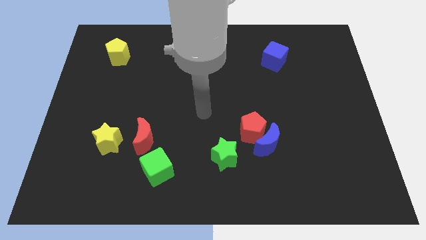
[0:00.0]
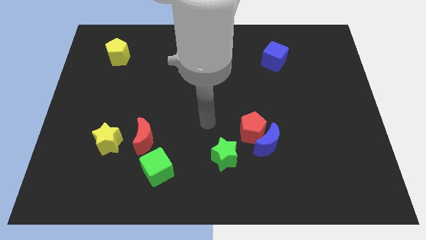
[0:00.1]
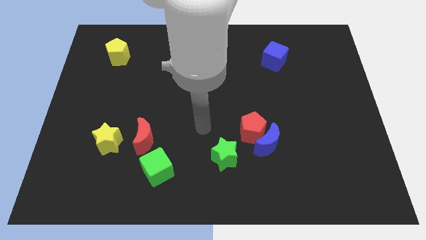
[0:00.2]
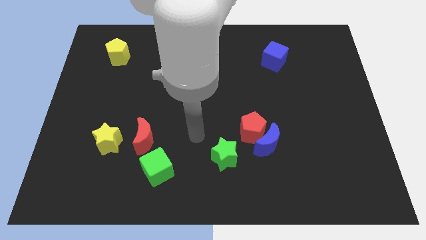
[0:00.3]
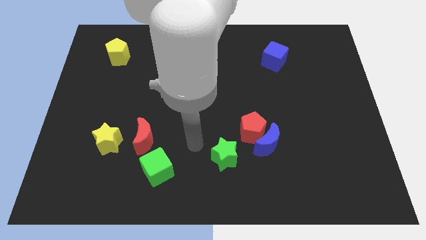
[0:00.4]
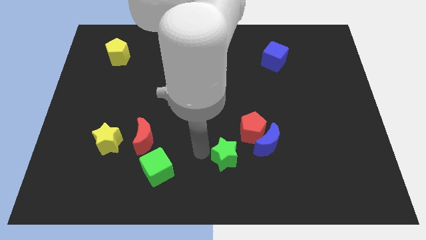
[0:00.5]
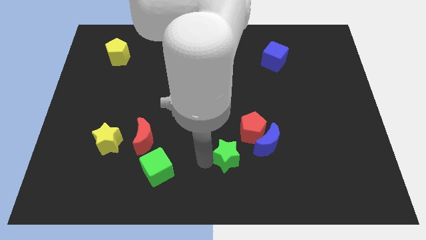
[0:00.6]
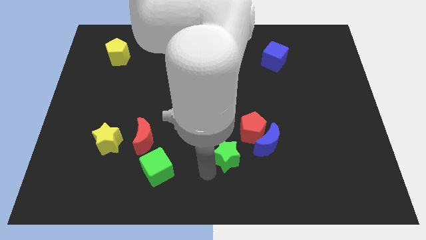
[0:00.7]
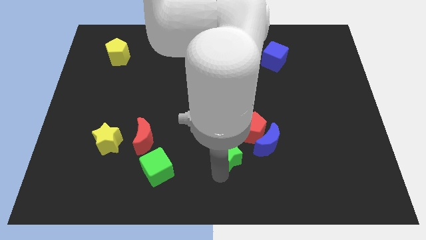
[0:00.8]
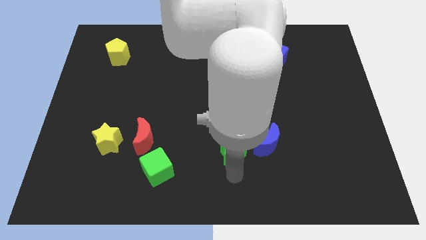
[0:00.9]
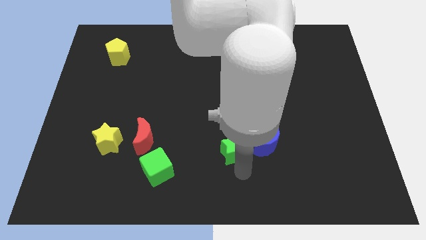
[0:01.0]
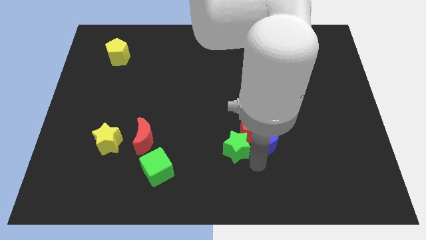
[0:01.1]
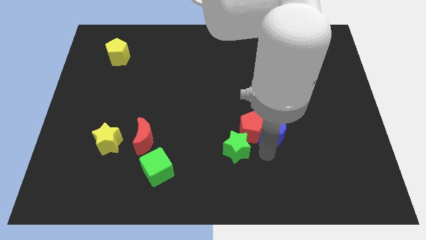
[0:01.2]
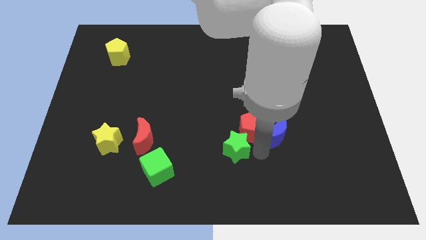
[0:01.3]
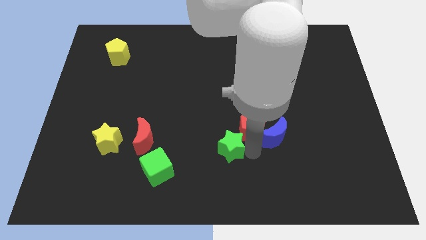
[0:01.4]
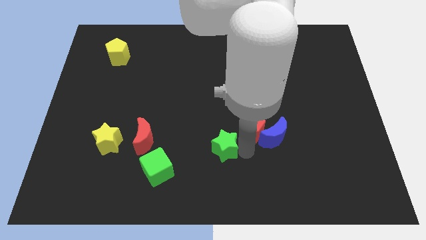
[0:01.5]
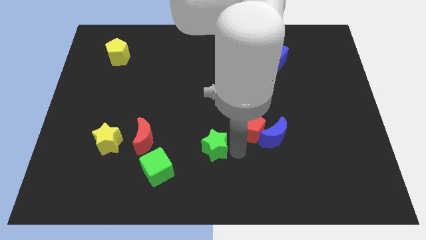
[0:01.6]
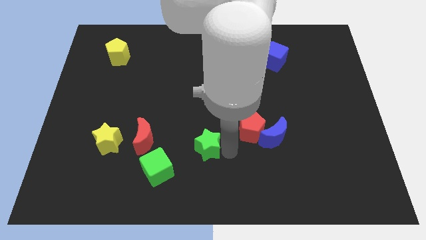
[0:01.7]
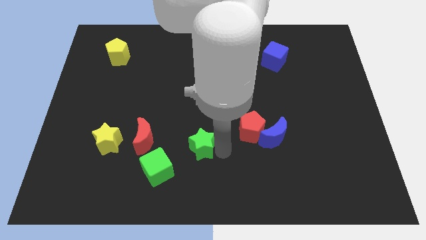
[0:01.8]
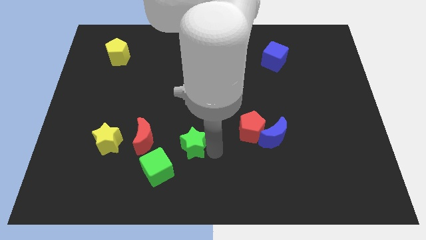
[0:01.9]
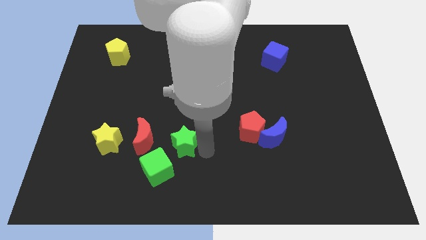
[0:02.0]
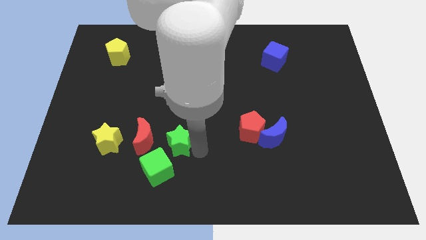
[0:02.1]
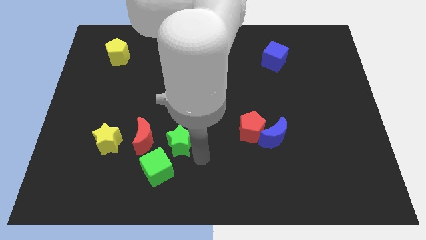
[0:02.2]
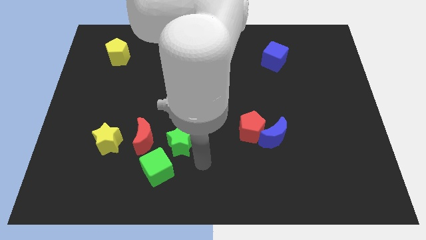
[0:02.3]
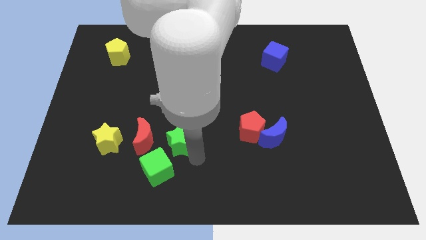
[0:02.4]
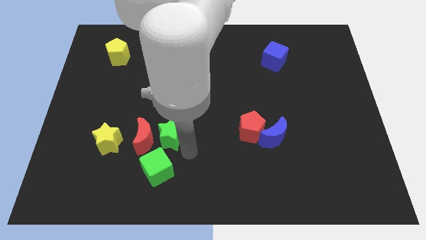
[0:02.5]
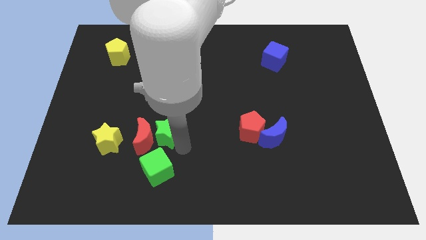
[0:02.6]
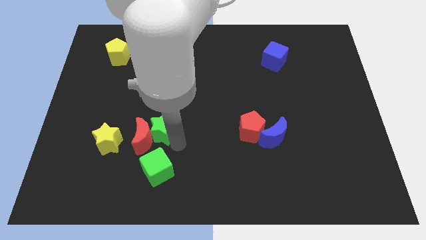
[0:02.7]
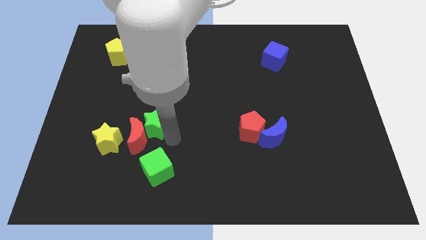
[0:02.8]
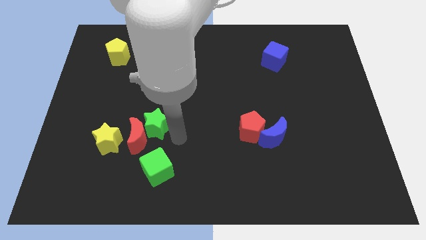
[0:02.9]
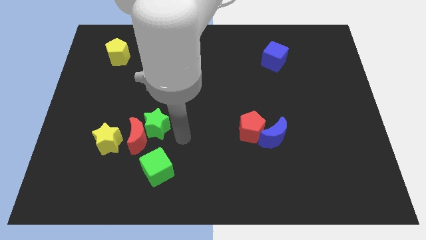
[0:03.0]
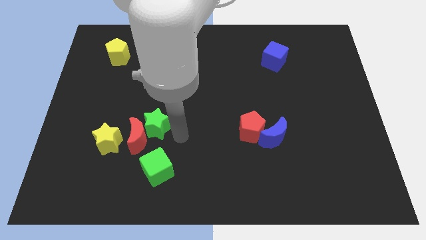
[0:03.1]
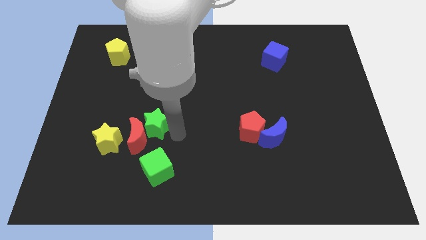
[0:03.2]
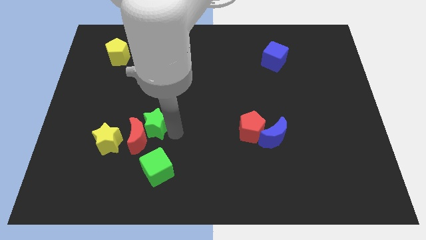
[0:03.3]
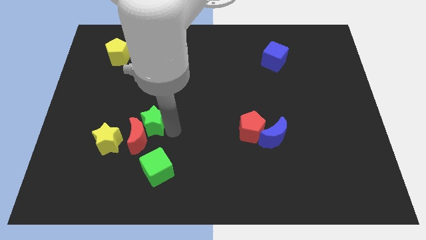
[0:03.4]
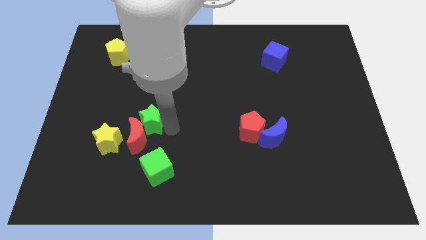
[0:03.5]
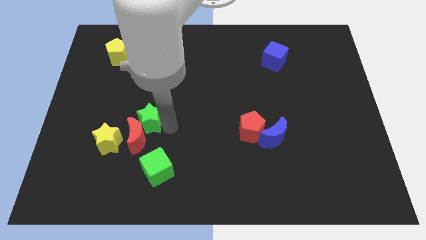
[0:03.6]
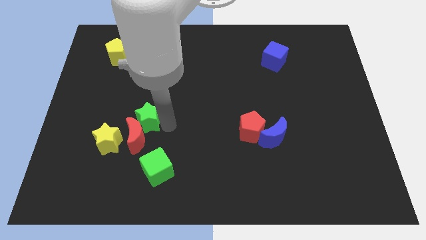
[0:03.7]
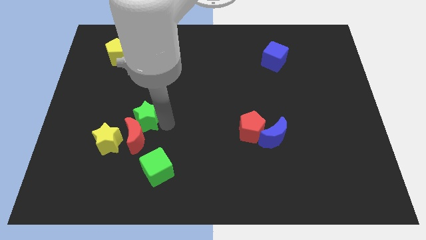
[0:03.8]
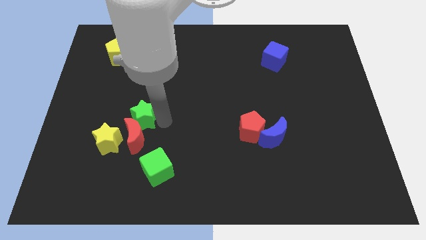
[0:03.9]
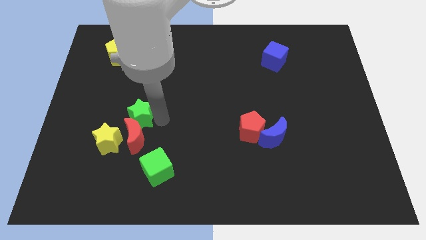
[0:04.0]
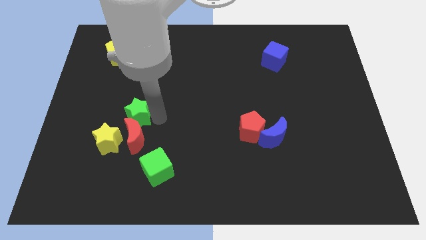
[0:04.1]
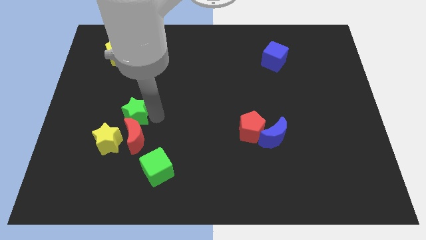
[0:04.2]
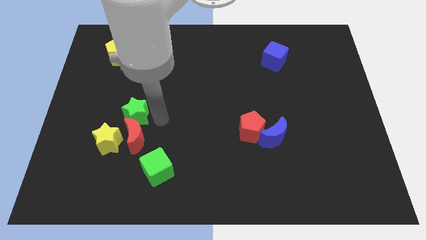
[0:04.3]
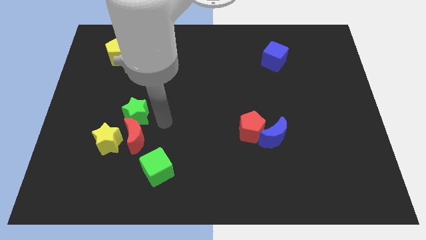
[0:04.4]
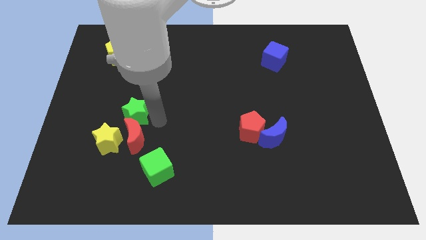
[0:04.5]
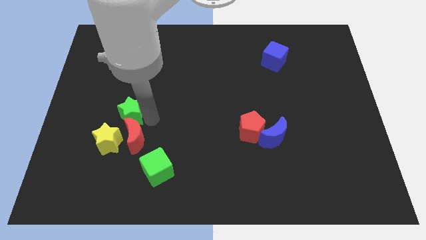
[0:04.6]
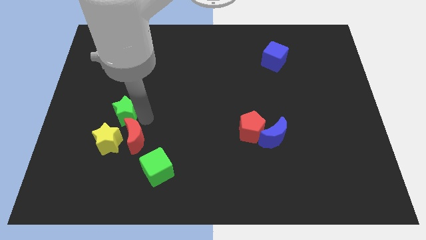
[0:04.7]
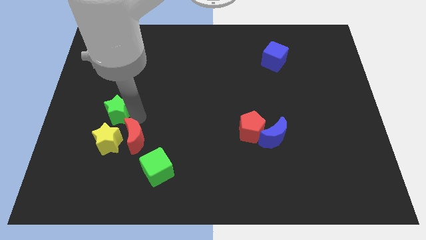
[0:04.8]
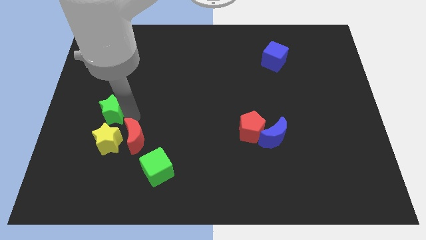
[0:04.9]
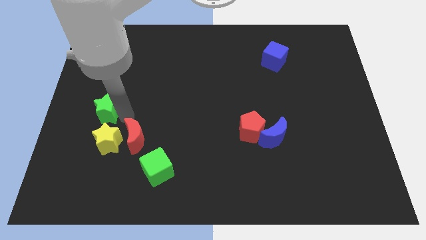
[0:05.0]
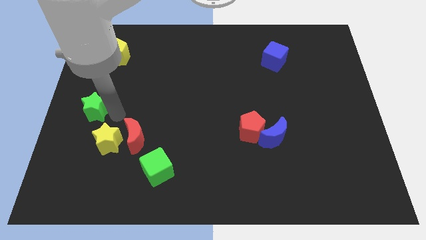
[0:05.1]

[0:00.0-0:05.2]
put the green star to the left side

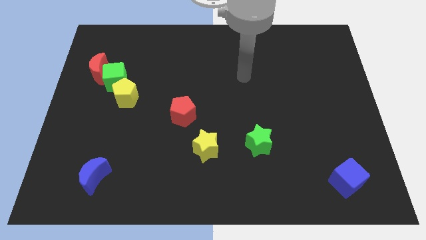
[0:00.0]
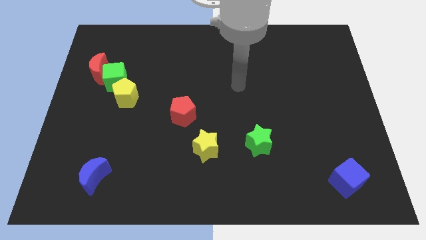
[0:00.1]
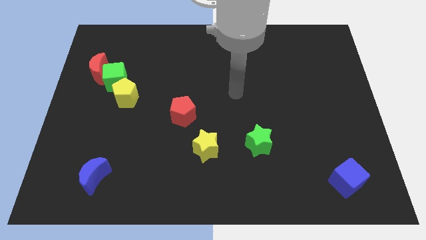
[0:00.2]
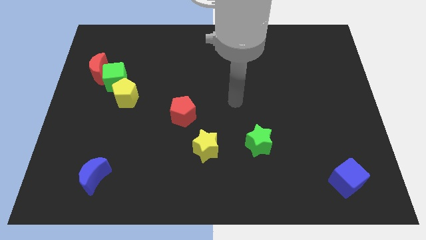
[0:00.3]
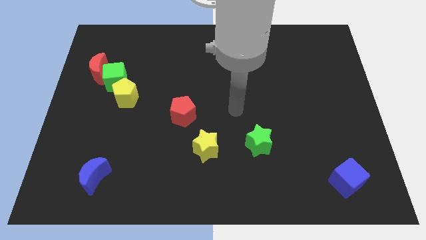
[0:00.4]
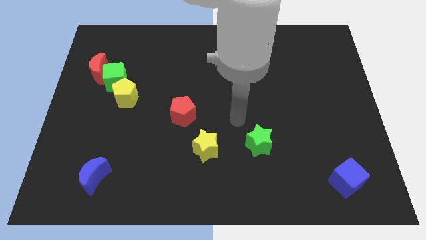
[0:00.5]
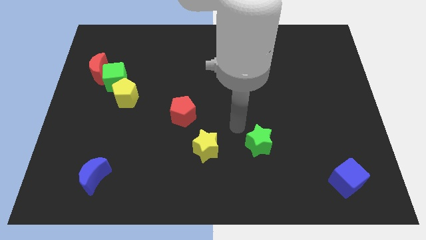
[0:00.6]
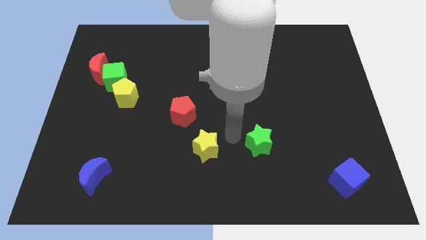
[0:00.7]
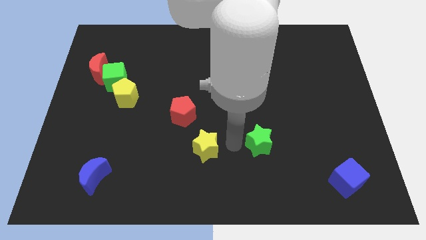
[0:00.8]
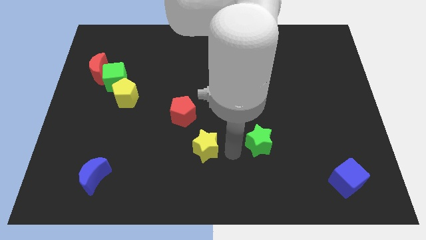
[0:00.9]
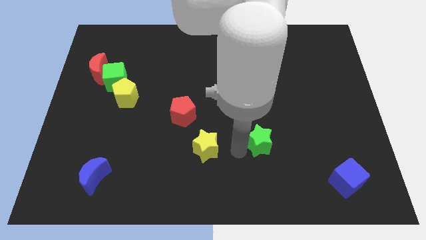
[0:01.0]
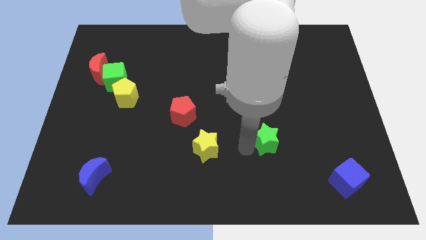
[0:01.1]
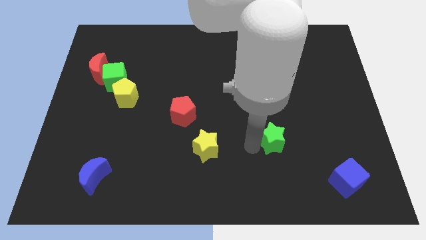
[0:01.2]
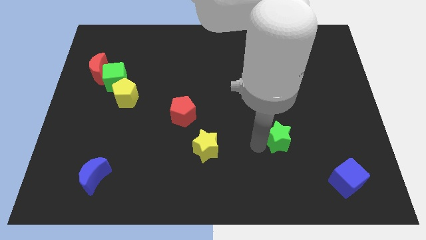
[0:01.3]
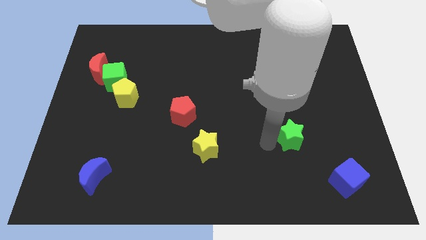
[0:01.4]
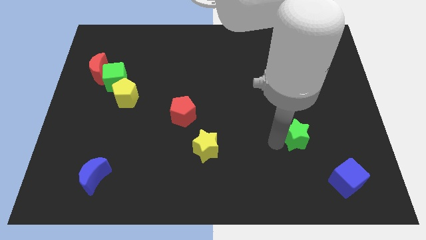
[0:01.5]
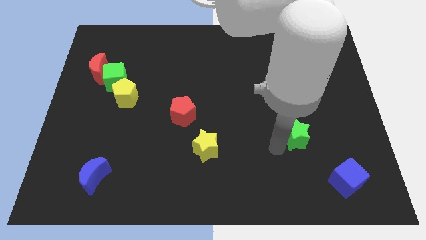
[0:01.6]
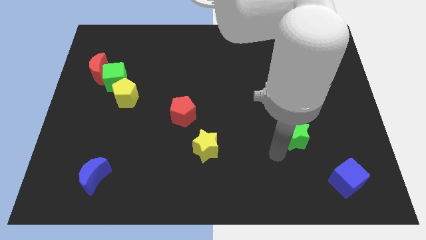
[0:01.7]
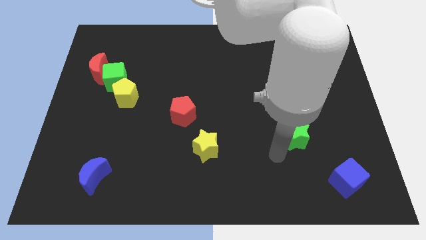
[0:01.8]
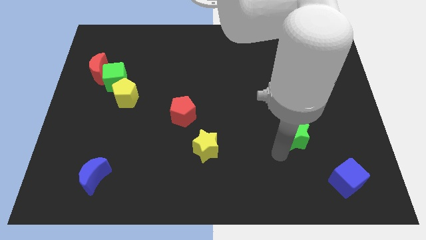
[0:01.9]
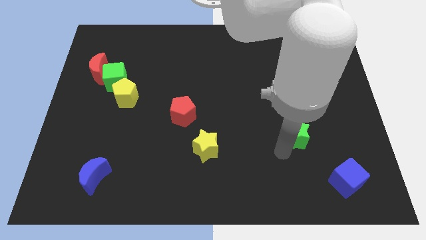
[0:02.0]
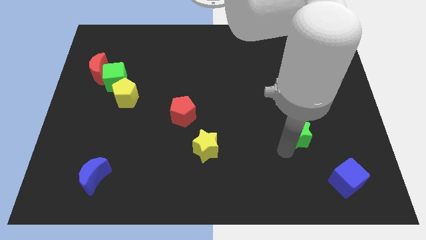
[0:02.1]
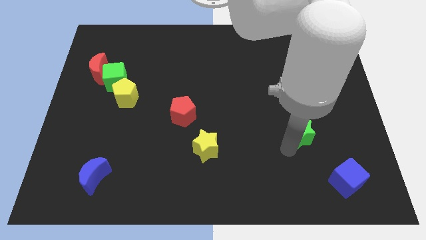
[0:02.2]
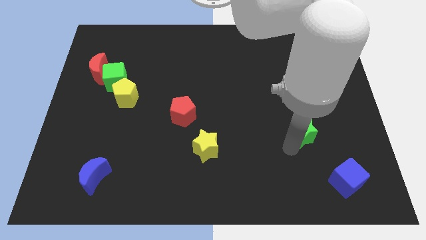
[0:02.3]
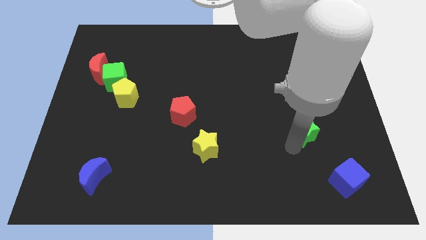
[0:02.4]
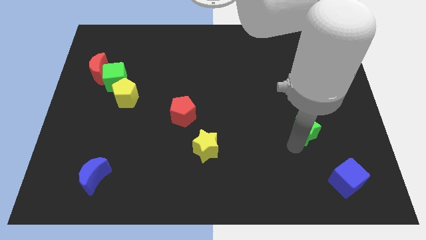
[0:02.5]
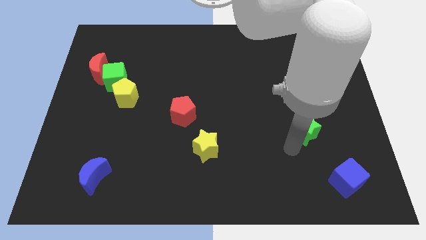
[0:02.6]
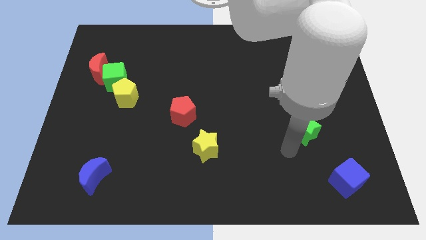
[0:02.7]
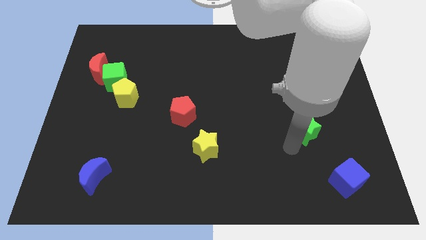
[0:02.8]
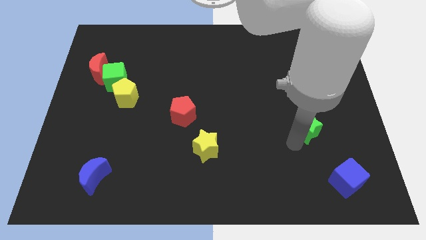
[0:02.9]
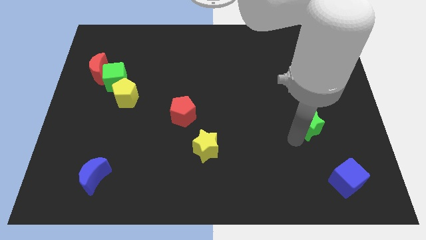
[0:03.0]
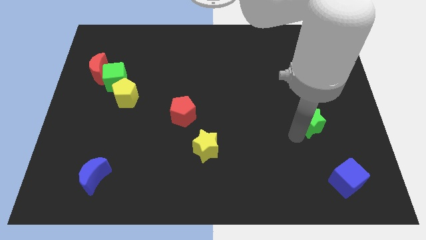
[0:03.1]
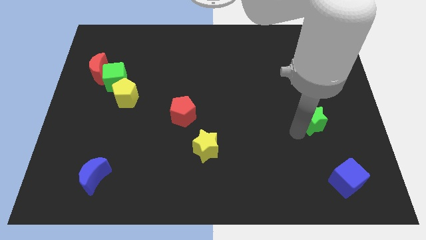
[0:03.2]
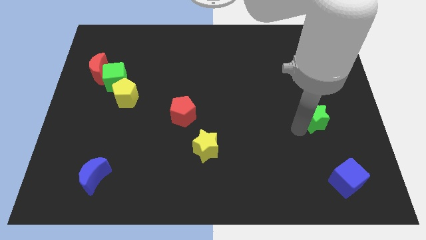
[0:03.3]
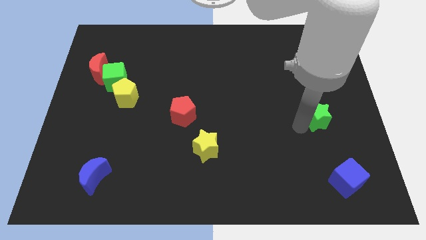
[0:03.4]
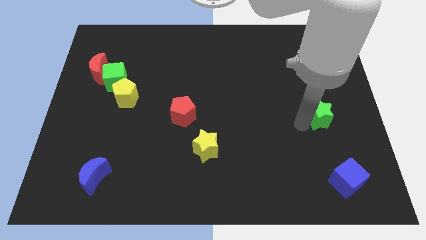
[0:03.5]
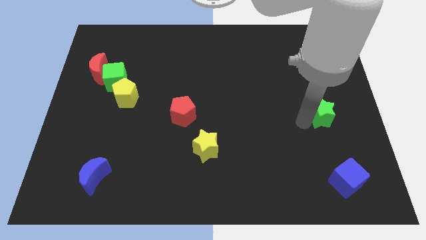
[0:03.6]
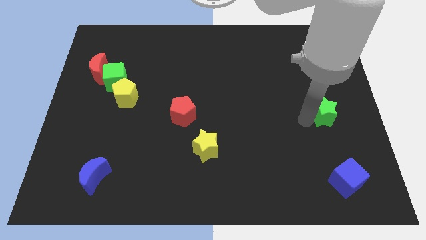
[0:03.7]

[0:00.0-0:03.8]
push the green star to the right side of the board
